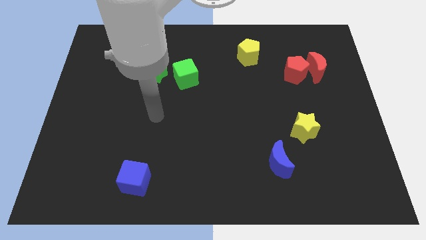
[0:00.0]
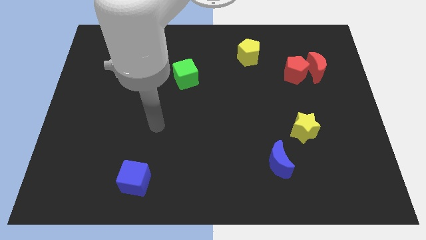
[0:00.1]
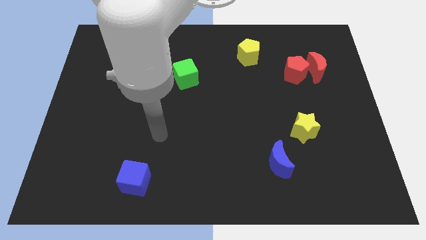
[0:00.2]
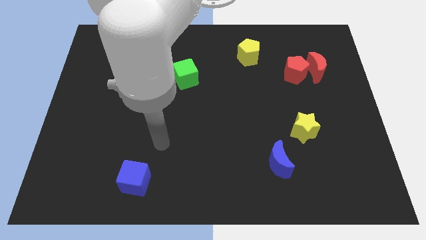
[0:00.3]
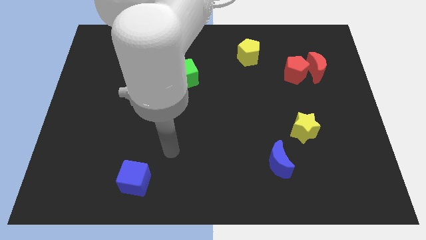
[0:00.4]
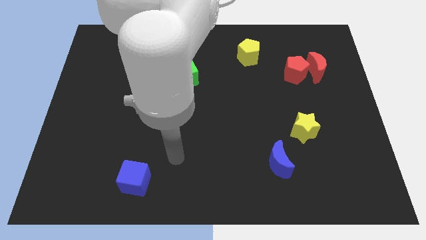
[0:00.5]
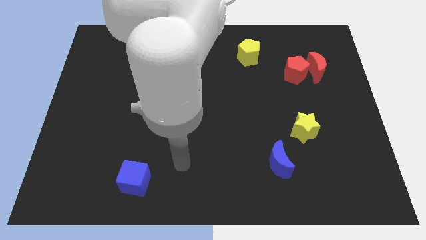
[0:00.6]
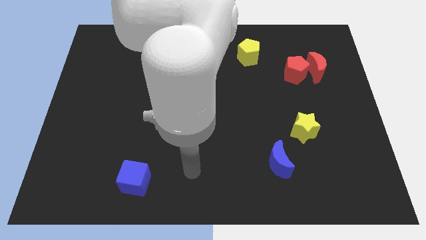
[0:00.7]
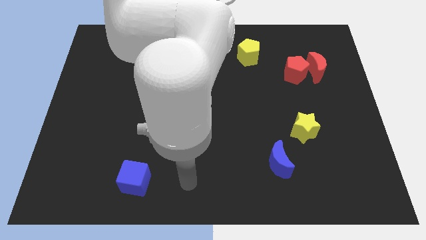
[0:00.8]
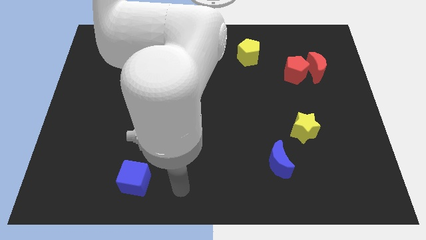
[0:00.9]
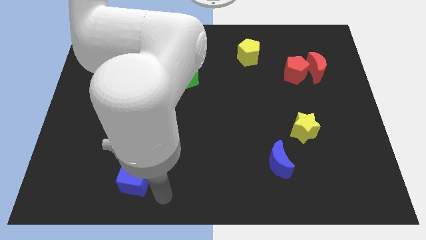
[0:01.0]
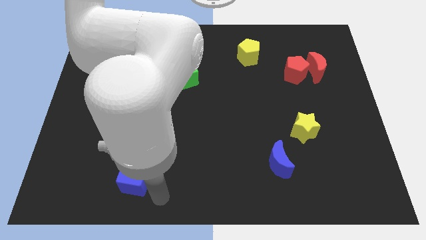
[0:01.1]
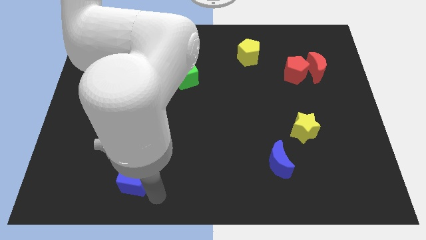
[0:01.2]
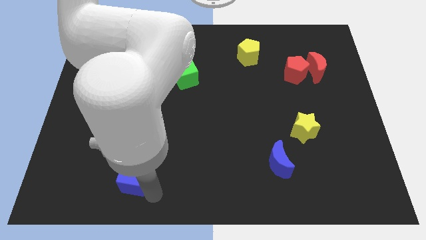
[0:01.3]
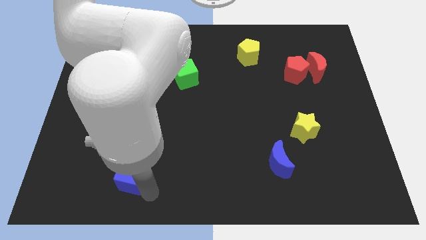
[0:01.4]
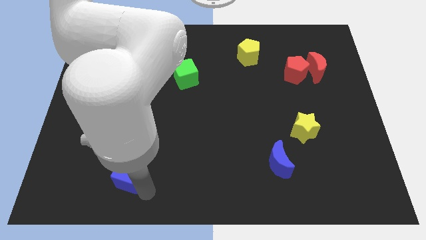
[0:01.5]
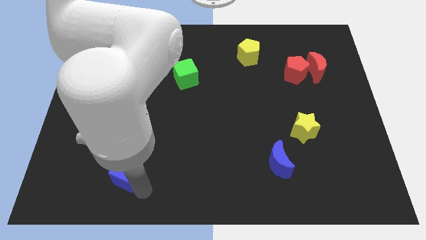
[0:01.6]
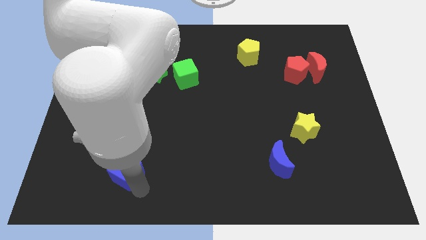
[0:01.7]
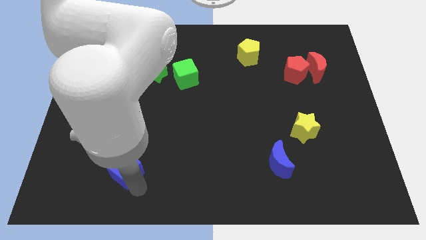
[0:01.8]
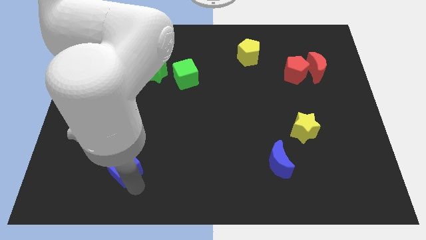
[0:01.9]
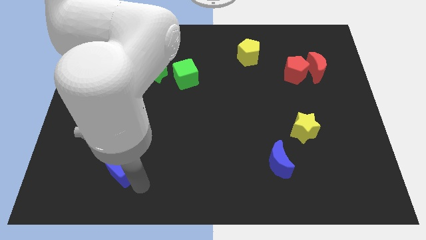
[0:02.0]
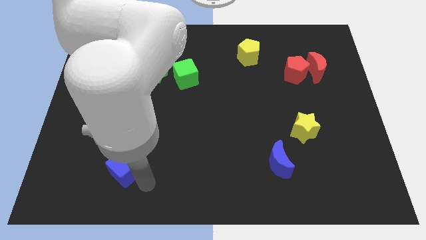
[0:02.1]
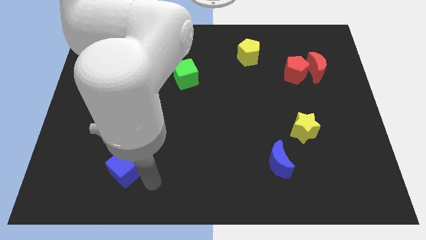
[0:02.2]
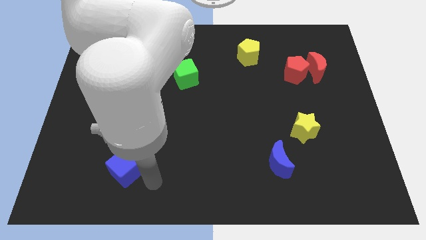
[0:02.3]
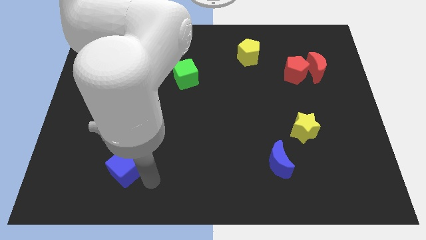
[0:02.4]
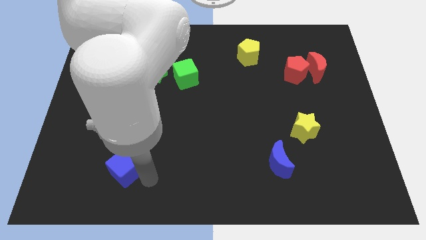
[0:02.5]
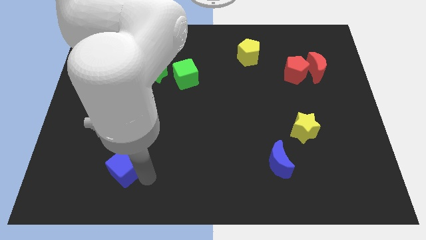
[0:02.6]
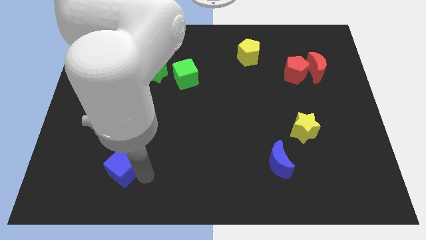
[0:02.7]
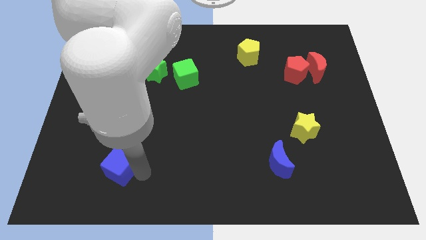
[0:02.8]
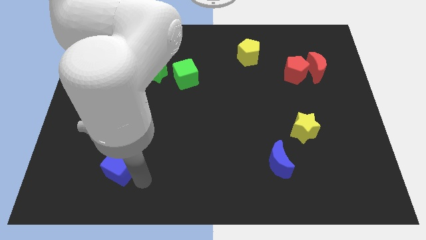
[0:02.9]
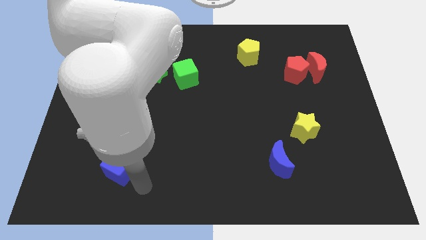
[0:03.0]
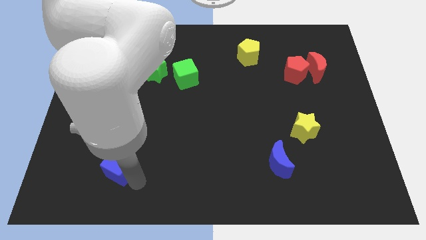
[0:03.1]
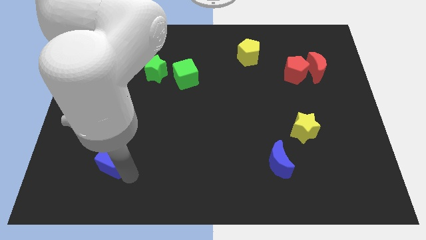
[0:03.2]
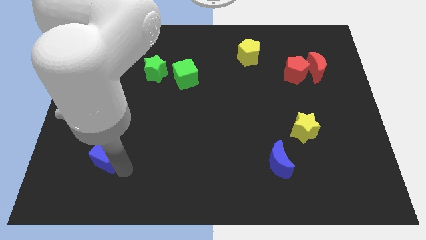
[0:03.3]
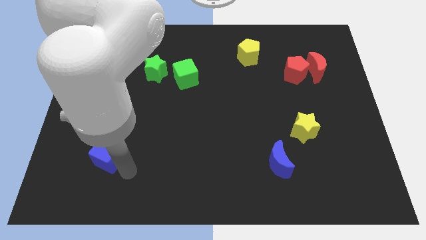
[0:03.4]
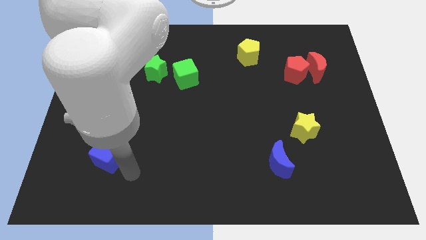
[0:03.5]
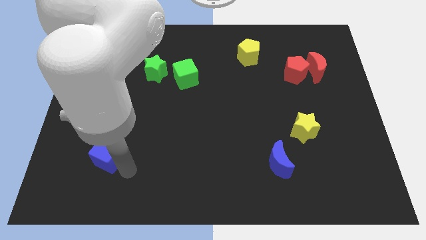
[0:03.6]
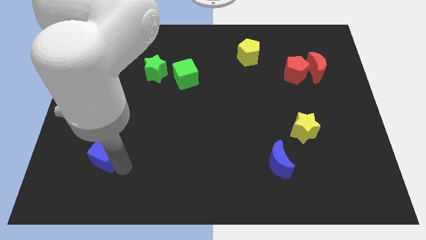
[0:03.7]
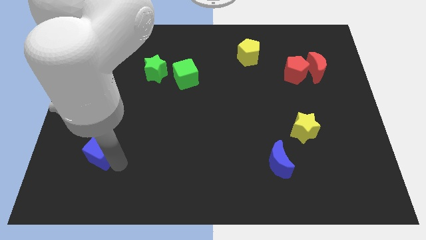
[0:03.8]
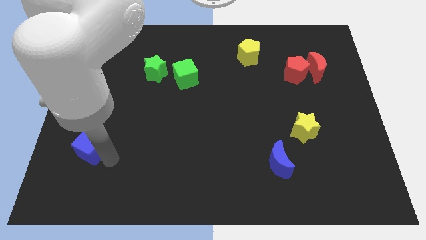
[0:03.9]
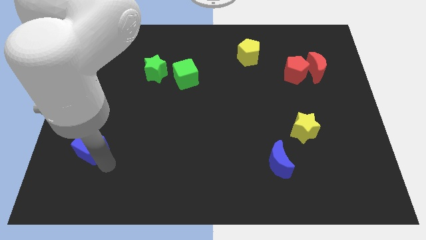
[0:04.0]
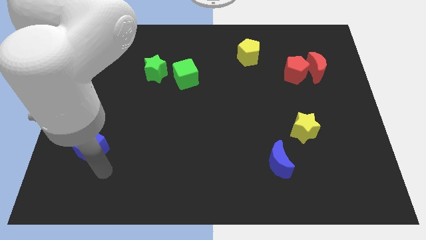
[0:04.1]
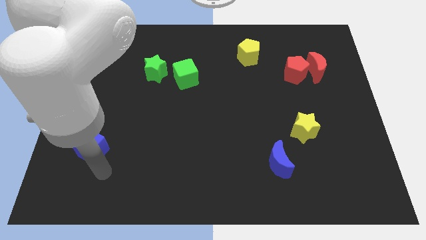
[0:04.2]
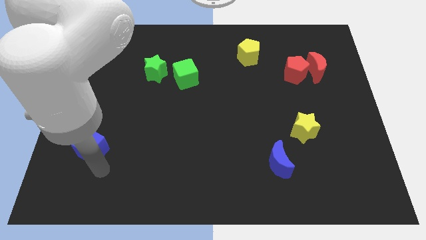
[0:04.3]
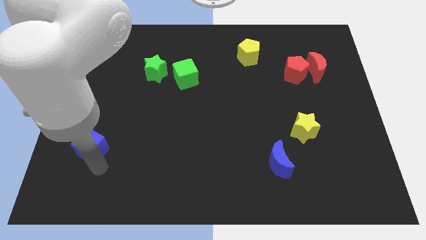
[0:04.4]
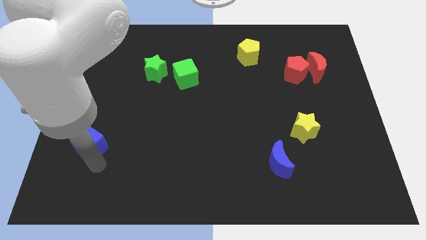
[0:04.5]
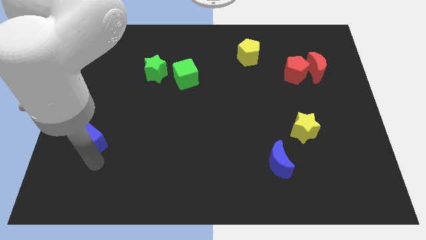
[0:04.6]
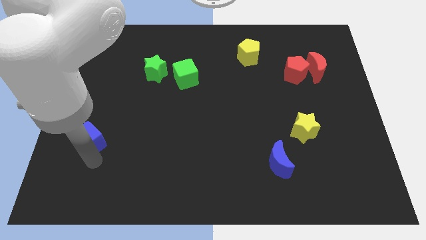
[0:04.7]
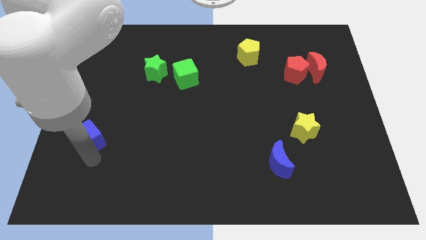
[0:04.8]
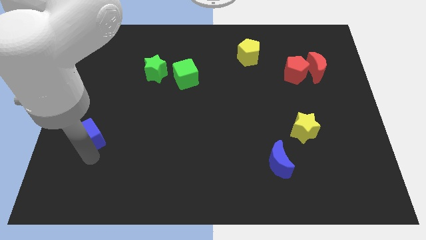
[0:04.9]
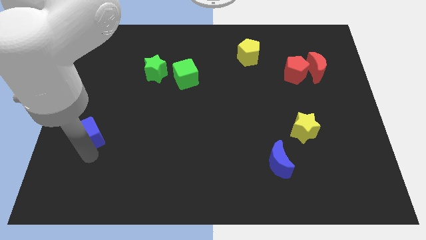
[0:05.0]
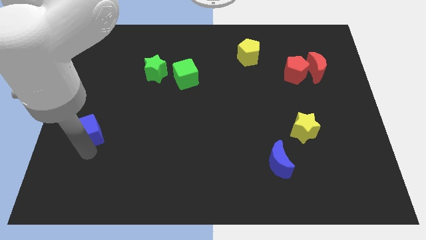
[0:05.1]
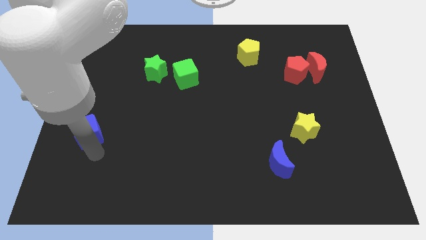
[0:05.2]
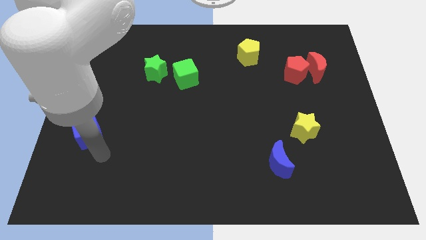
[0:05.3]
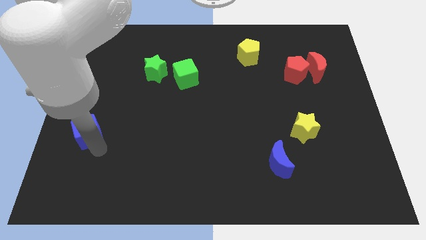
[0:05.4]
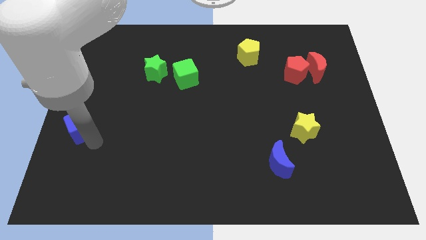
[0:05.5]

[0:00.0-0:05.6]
push the blue cube to the left side

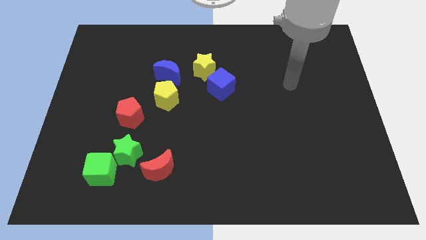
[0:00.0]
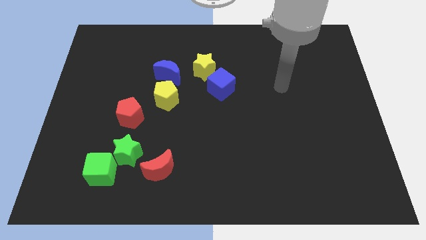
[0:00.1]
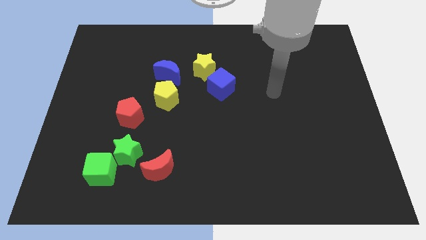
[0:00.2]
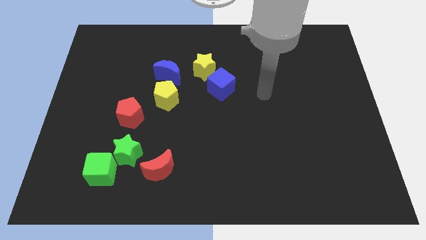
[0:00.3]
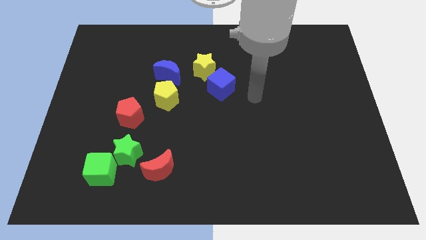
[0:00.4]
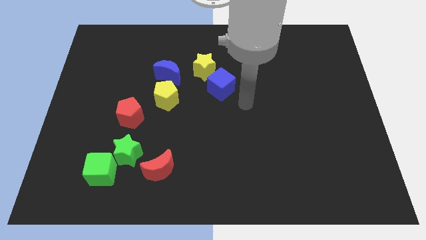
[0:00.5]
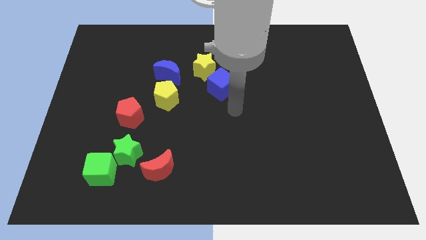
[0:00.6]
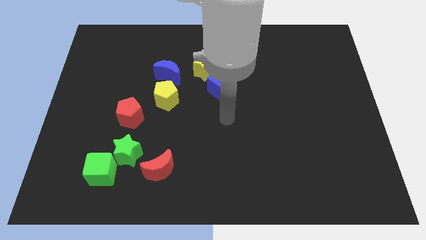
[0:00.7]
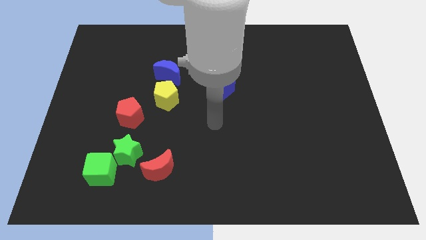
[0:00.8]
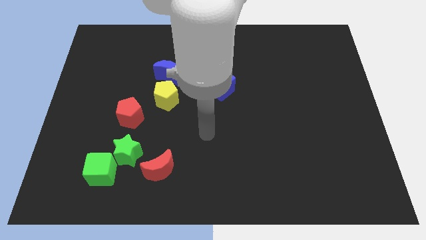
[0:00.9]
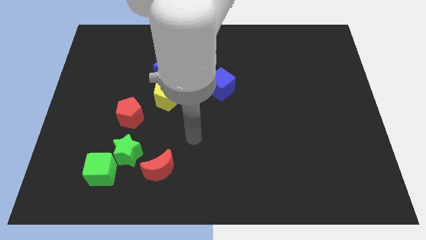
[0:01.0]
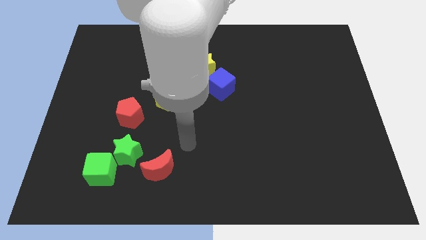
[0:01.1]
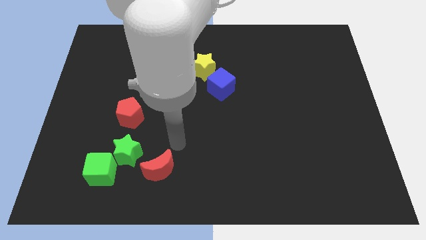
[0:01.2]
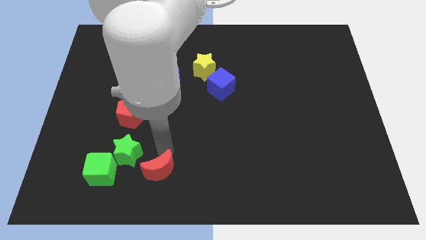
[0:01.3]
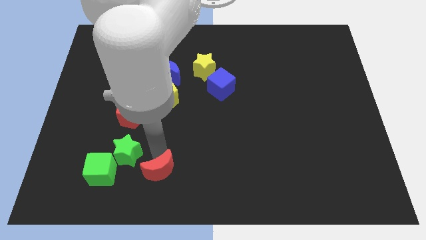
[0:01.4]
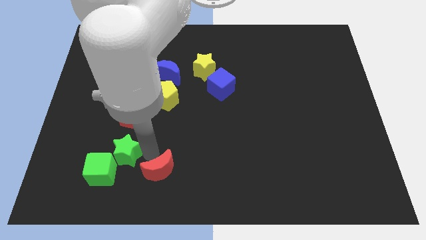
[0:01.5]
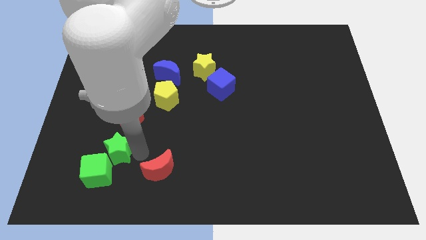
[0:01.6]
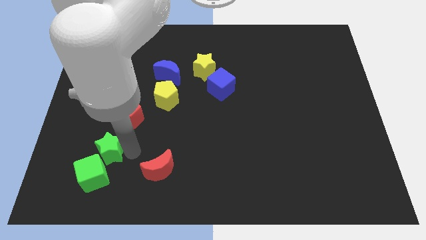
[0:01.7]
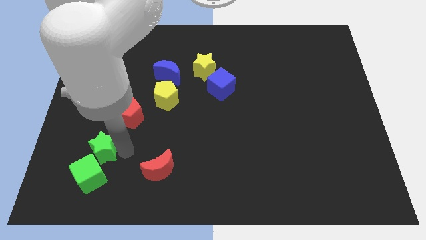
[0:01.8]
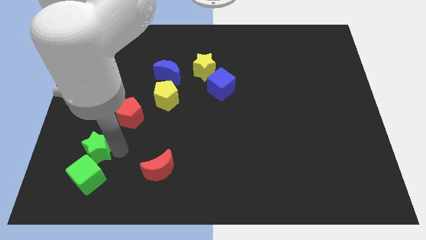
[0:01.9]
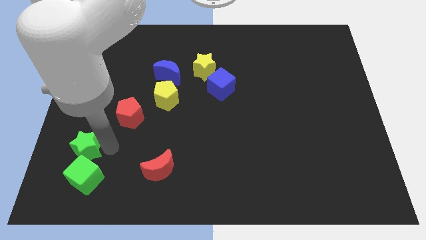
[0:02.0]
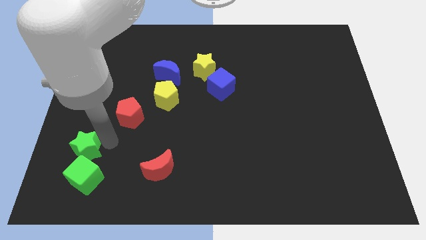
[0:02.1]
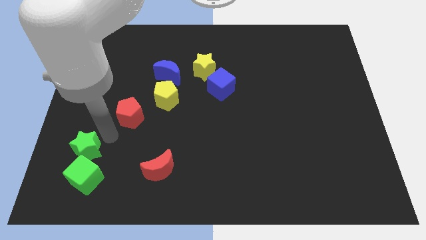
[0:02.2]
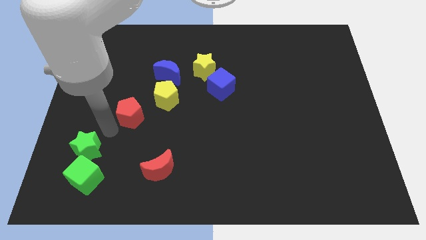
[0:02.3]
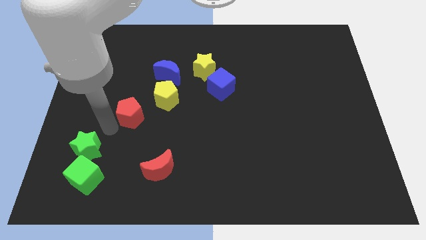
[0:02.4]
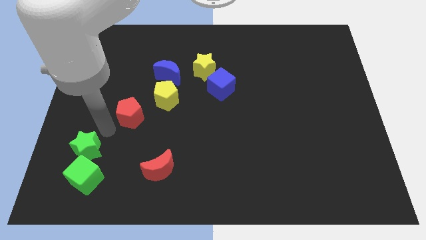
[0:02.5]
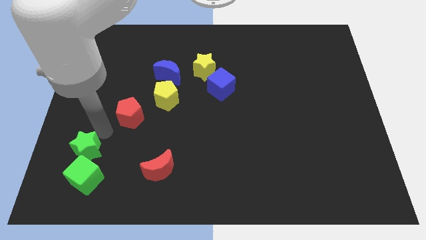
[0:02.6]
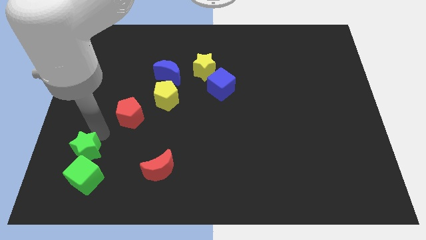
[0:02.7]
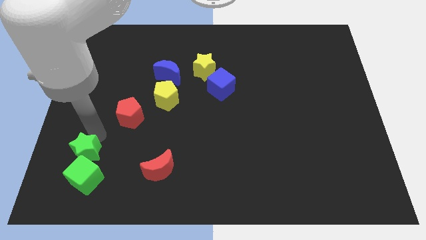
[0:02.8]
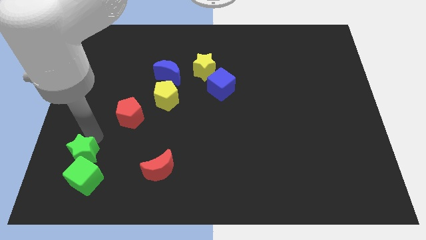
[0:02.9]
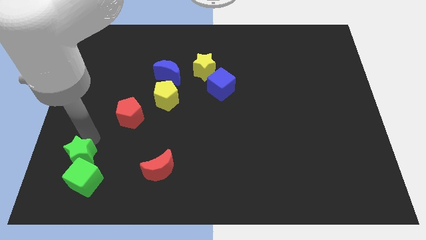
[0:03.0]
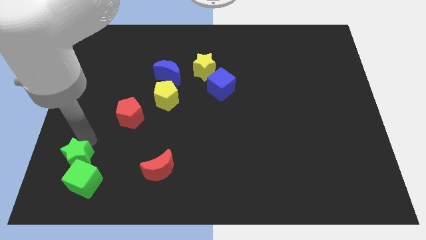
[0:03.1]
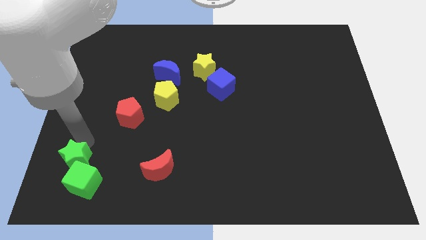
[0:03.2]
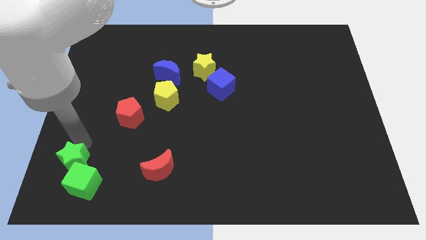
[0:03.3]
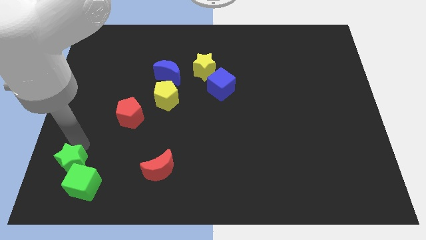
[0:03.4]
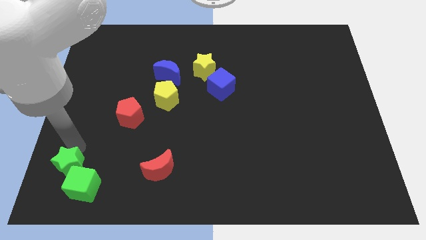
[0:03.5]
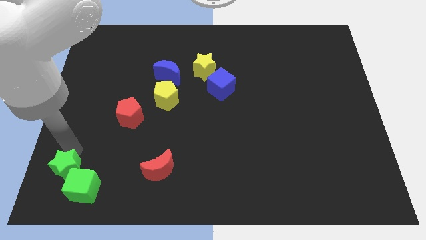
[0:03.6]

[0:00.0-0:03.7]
put the green star to the bottom left corner
